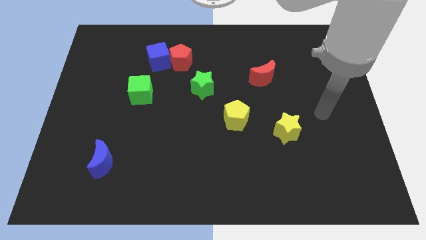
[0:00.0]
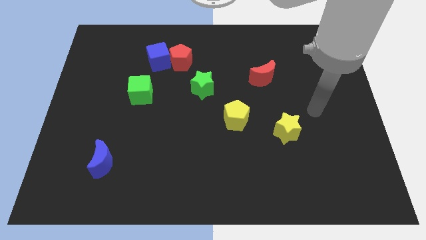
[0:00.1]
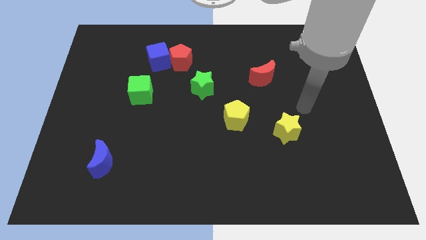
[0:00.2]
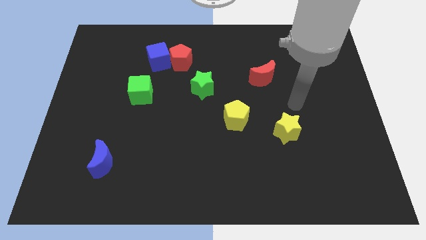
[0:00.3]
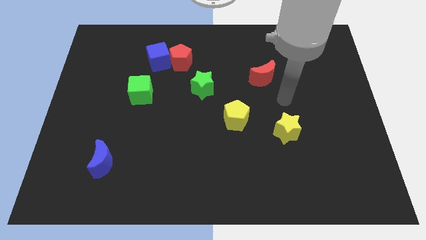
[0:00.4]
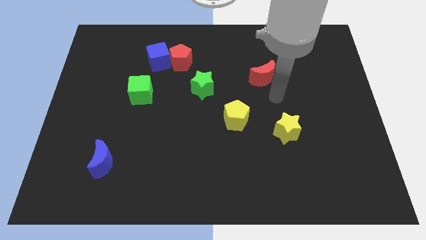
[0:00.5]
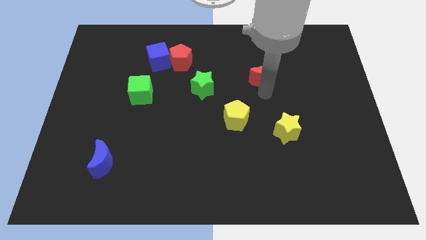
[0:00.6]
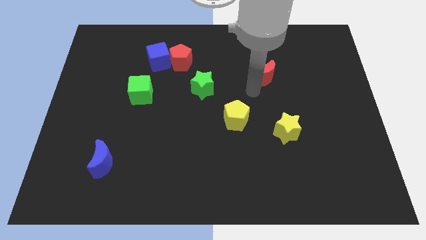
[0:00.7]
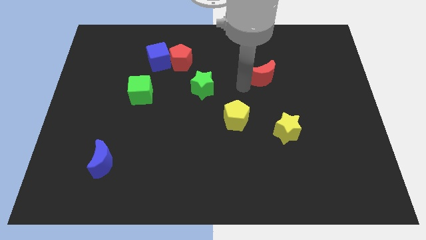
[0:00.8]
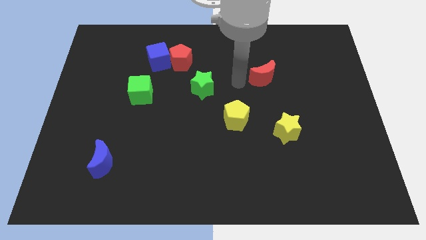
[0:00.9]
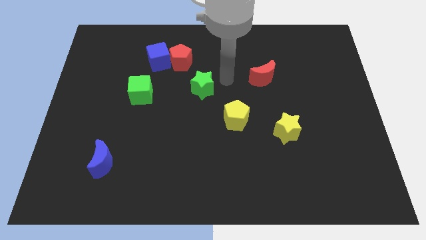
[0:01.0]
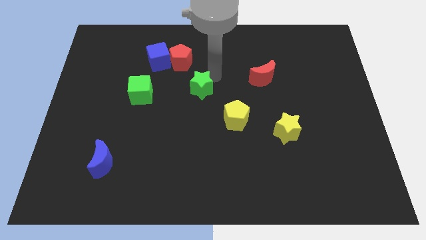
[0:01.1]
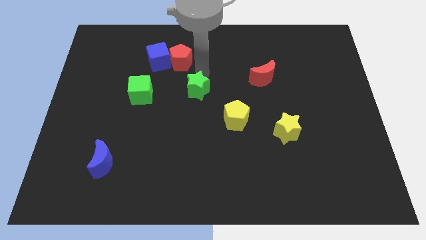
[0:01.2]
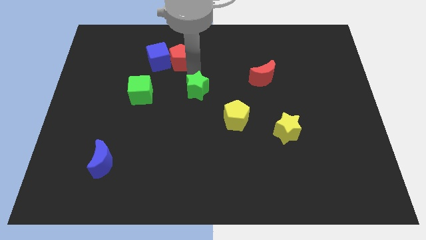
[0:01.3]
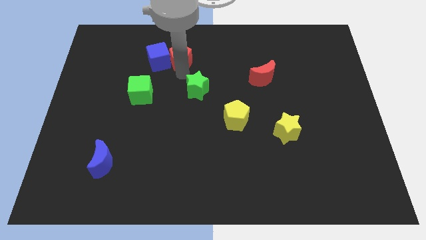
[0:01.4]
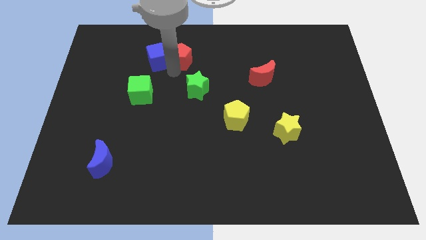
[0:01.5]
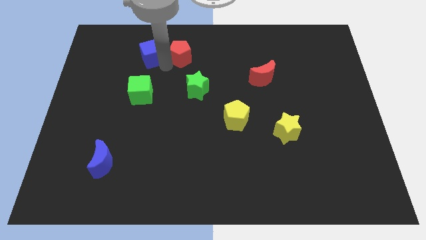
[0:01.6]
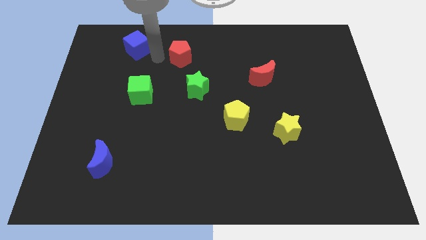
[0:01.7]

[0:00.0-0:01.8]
move the red pentagon away from the blue cube

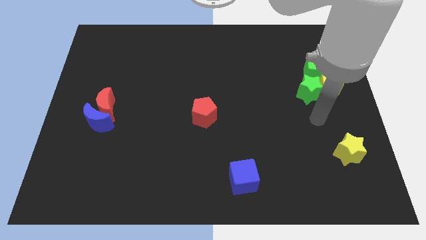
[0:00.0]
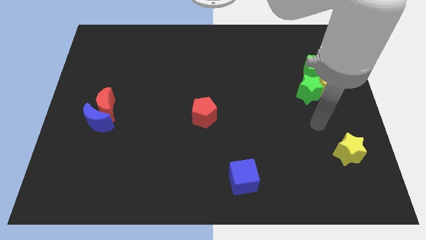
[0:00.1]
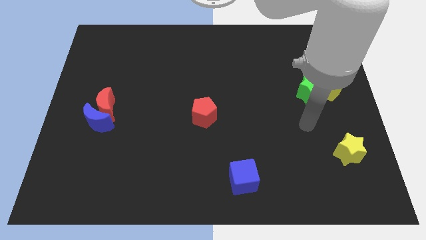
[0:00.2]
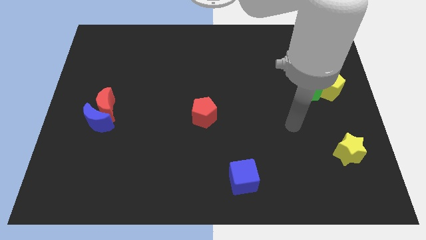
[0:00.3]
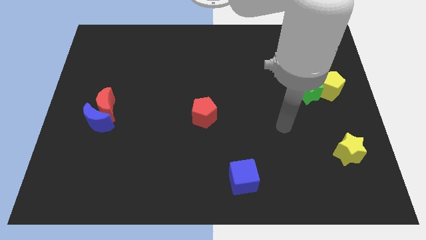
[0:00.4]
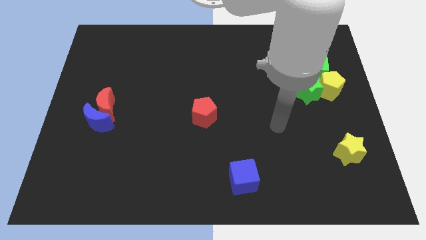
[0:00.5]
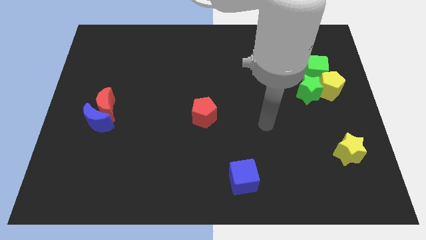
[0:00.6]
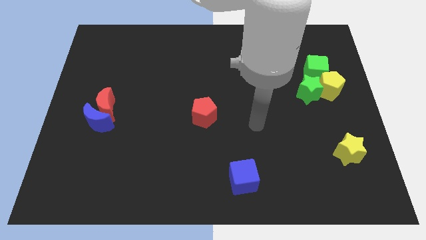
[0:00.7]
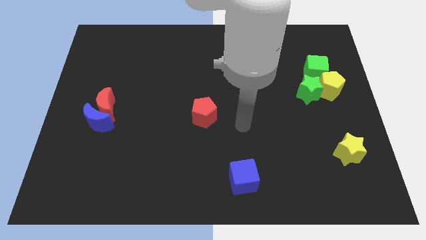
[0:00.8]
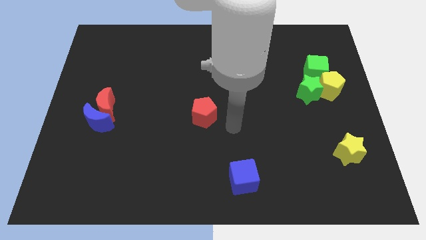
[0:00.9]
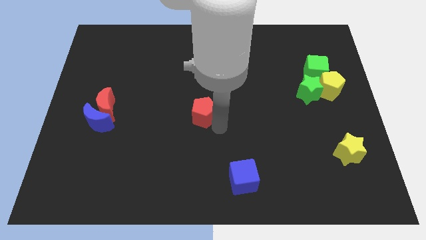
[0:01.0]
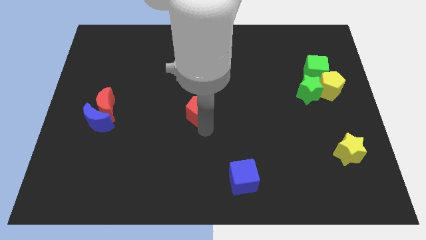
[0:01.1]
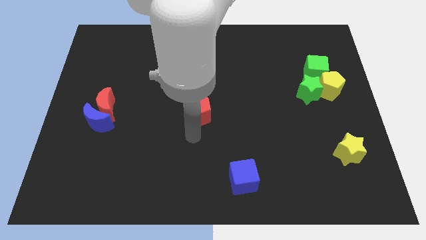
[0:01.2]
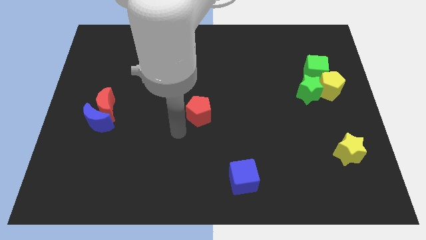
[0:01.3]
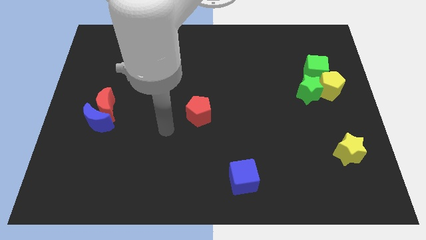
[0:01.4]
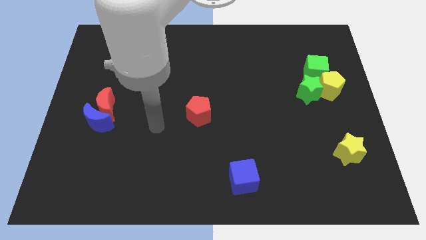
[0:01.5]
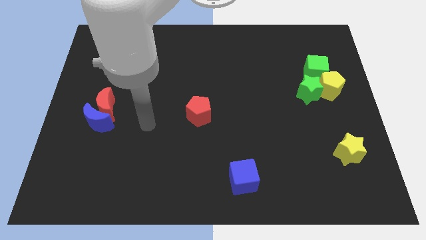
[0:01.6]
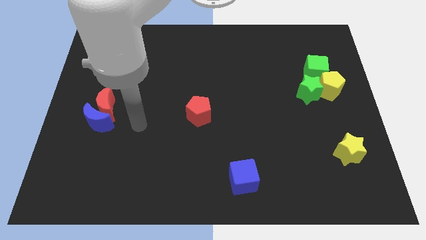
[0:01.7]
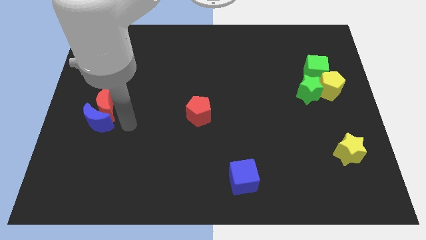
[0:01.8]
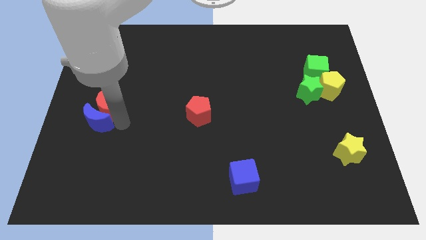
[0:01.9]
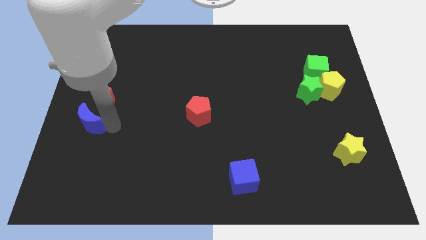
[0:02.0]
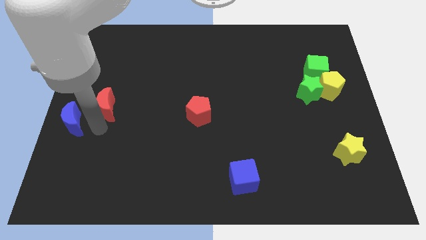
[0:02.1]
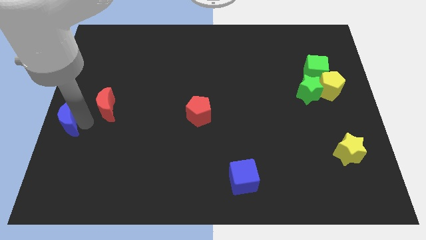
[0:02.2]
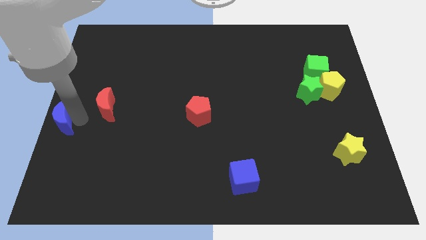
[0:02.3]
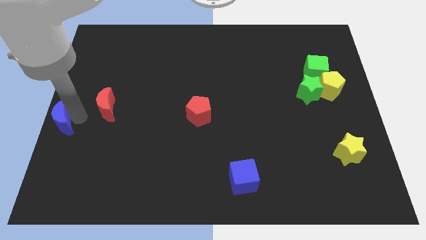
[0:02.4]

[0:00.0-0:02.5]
separate the red moon from the blue moon

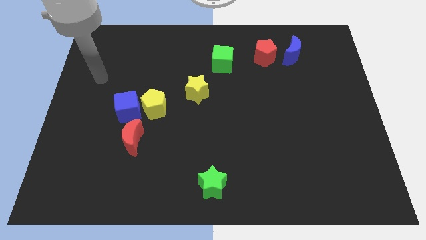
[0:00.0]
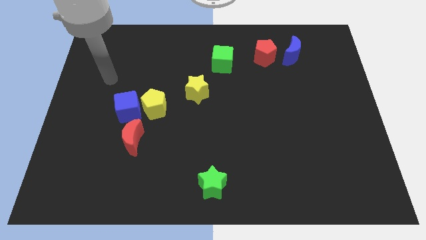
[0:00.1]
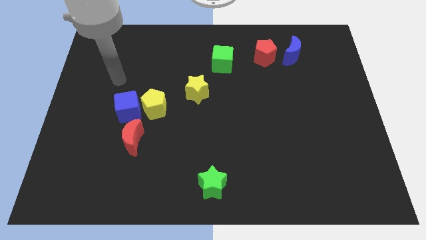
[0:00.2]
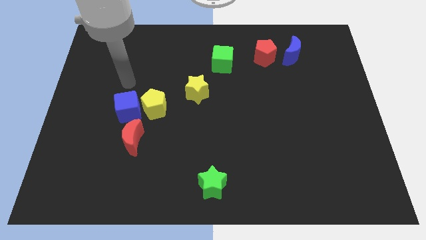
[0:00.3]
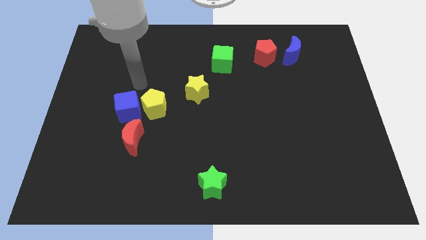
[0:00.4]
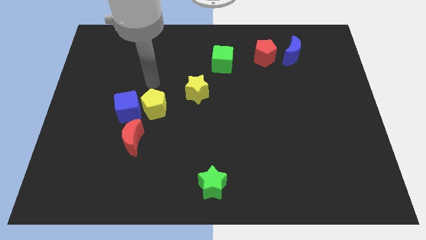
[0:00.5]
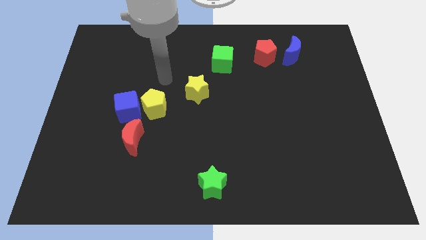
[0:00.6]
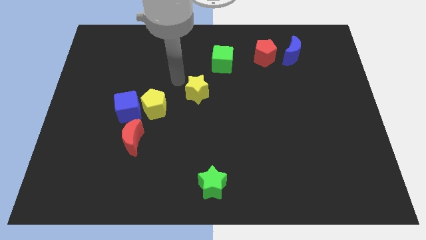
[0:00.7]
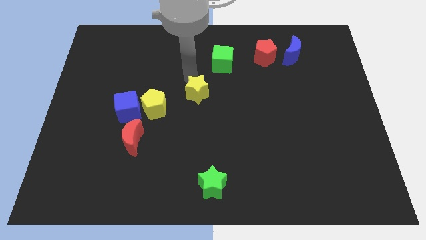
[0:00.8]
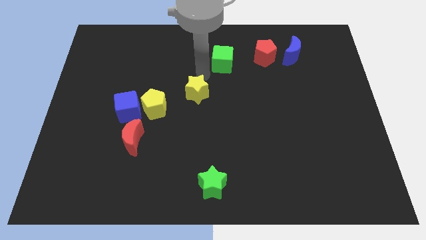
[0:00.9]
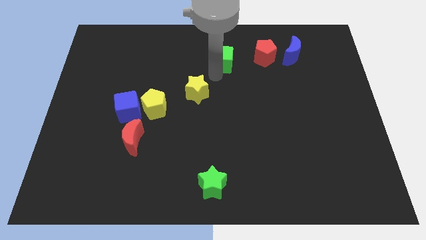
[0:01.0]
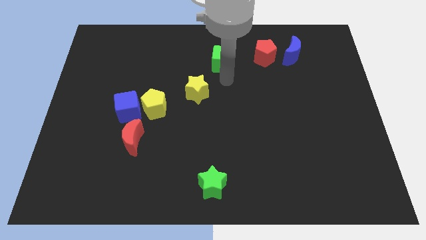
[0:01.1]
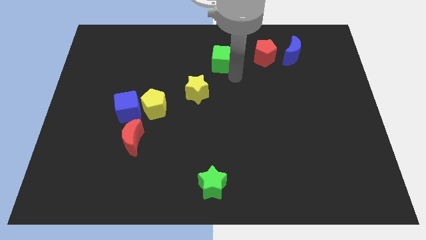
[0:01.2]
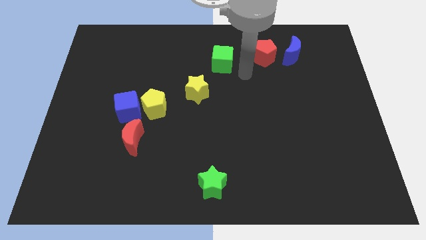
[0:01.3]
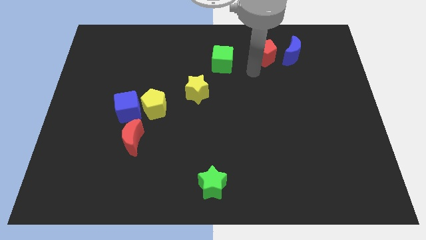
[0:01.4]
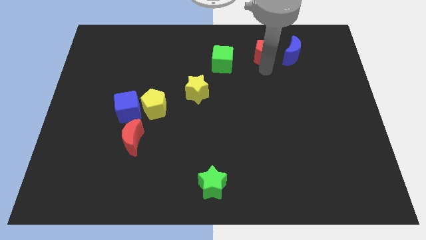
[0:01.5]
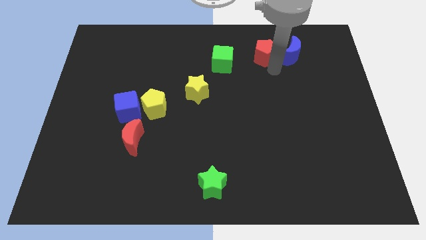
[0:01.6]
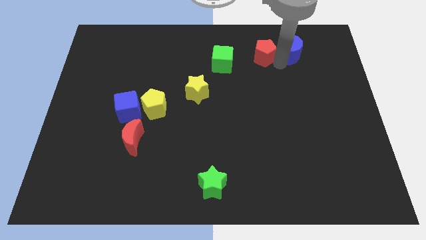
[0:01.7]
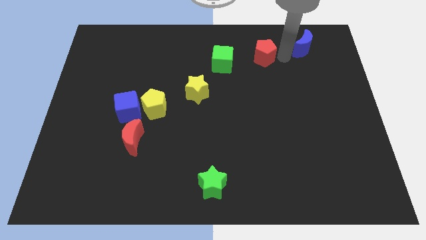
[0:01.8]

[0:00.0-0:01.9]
move the red pentagon away from the blue moon

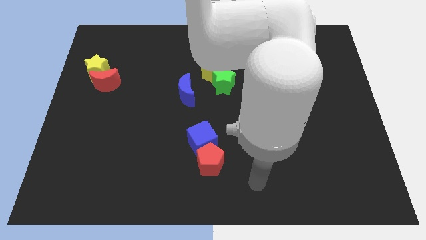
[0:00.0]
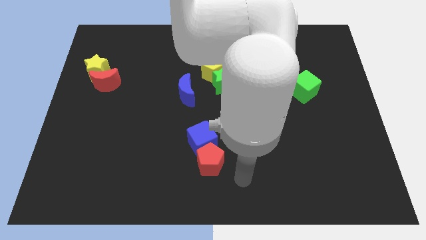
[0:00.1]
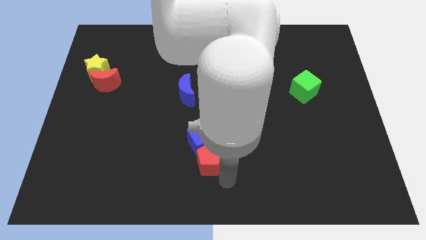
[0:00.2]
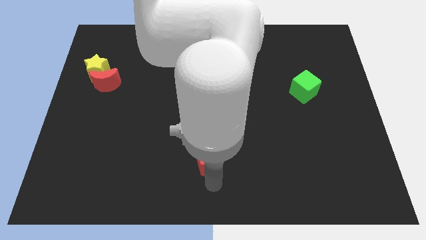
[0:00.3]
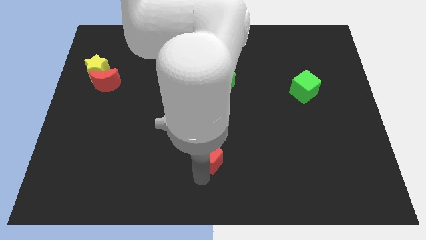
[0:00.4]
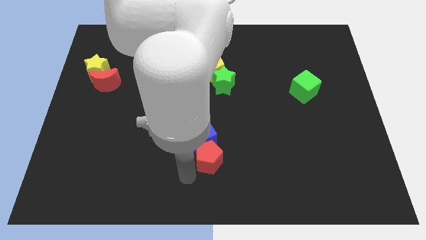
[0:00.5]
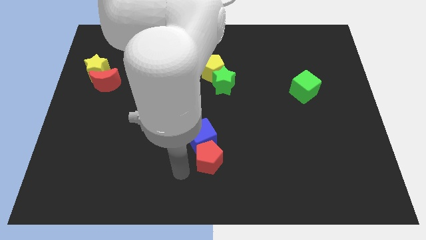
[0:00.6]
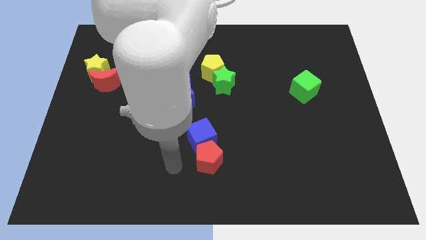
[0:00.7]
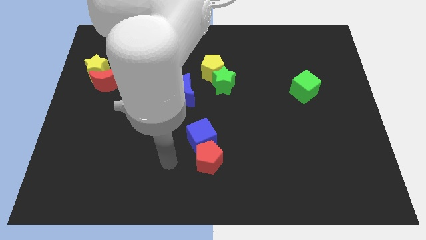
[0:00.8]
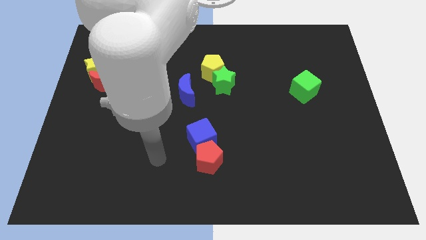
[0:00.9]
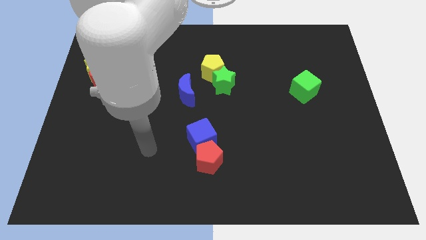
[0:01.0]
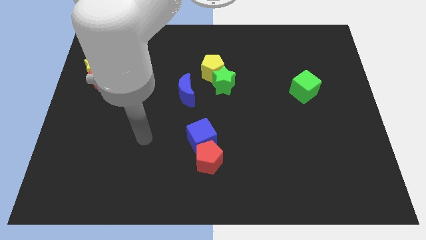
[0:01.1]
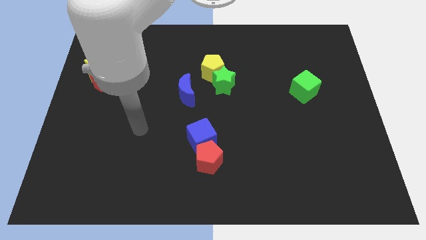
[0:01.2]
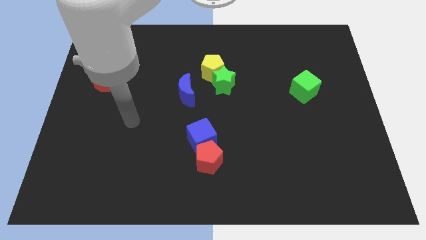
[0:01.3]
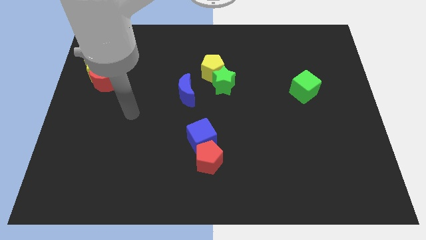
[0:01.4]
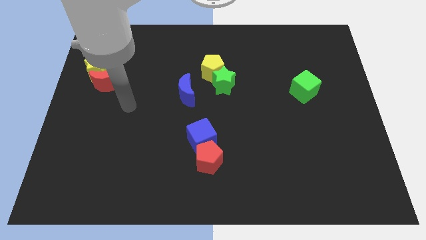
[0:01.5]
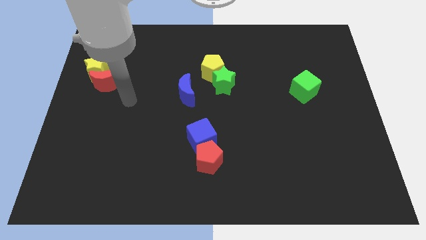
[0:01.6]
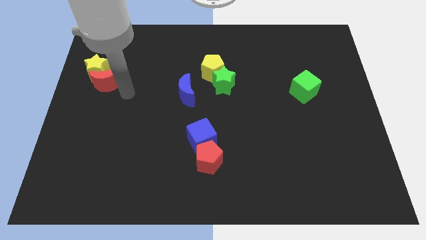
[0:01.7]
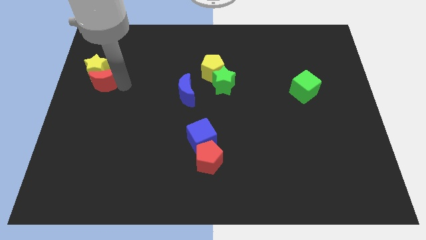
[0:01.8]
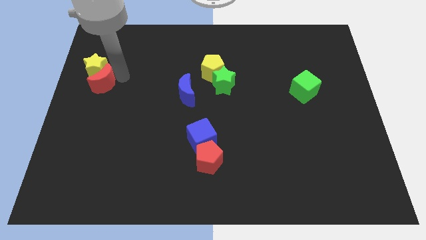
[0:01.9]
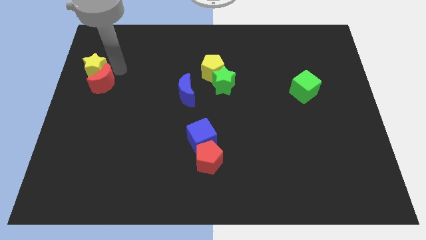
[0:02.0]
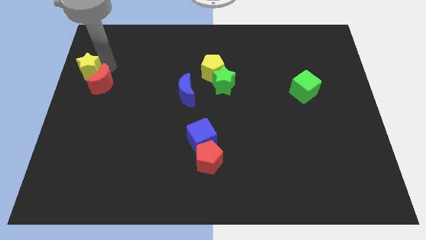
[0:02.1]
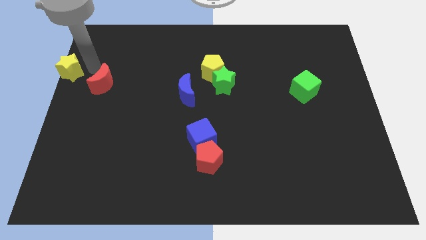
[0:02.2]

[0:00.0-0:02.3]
pull the red moon apart from the yellow star

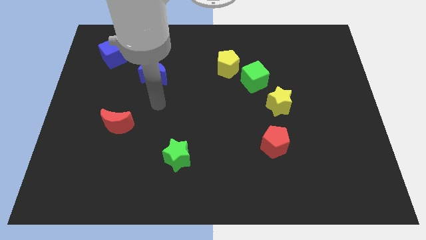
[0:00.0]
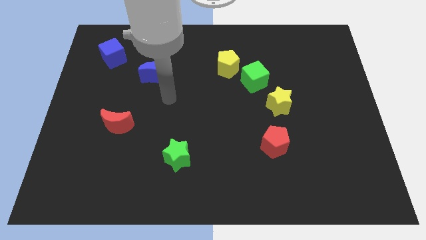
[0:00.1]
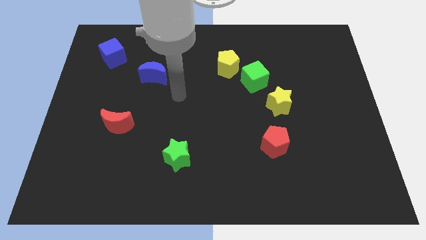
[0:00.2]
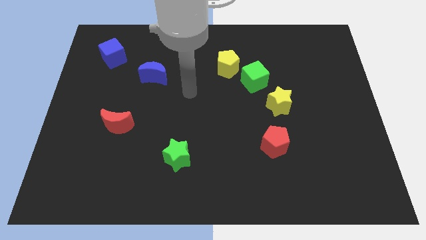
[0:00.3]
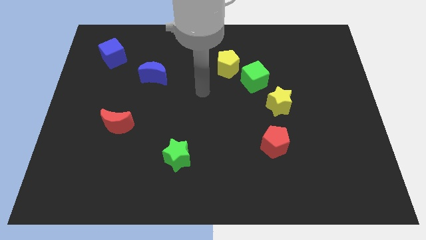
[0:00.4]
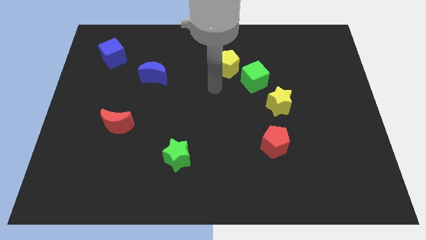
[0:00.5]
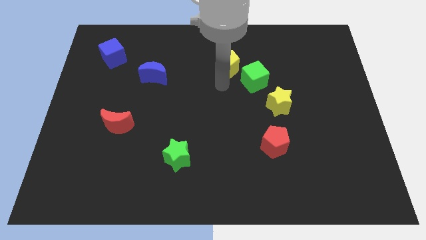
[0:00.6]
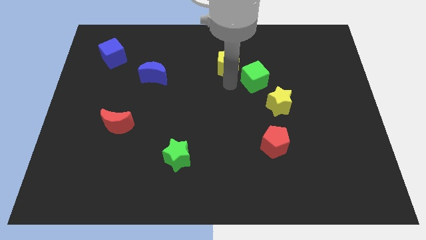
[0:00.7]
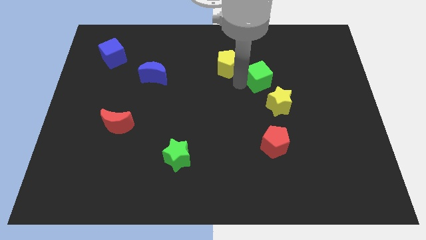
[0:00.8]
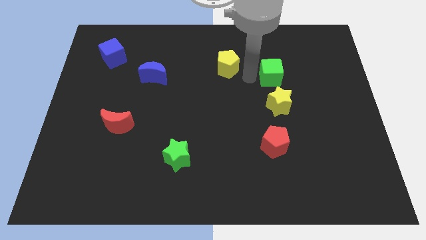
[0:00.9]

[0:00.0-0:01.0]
separate the yellow pentagon from the green cube
